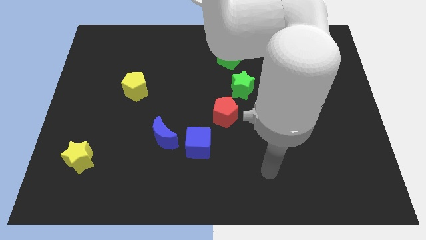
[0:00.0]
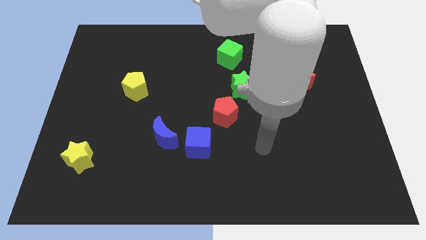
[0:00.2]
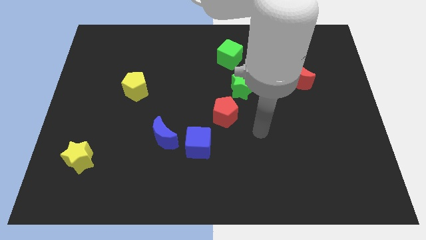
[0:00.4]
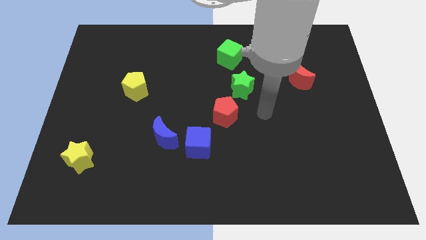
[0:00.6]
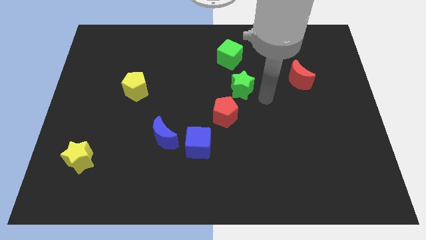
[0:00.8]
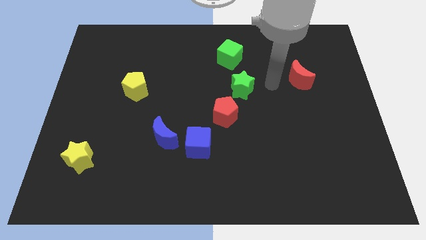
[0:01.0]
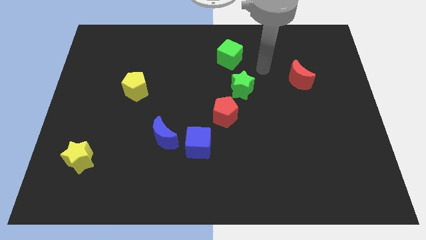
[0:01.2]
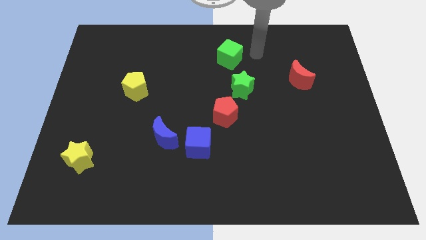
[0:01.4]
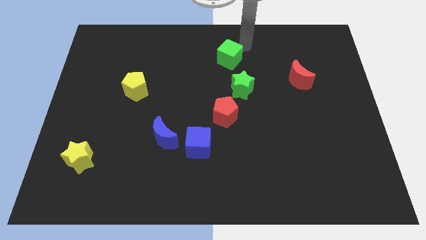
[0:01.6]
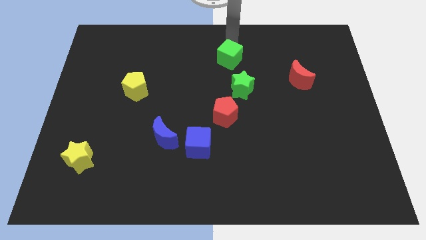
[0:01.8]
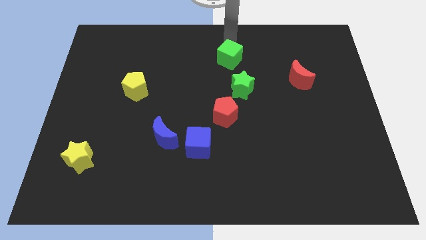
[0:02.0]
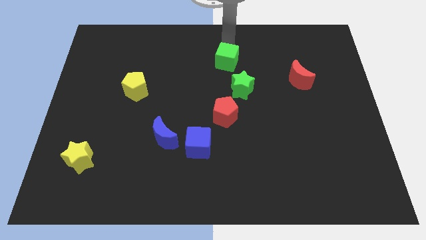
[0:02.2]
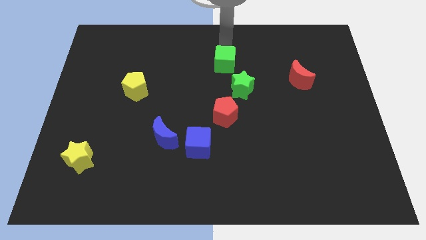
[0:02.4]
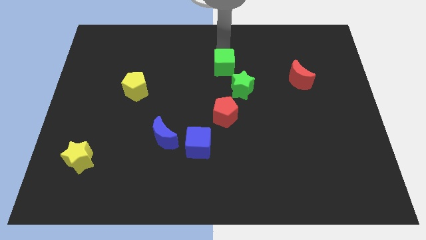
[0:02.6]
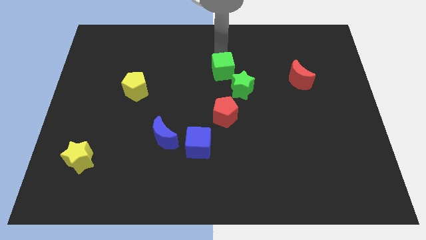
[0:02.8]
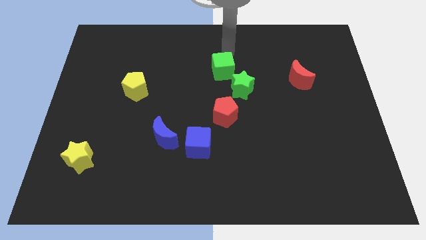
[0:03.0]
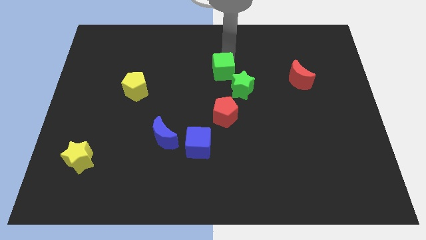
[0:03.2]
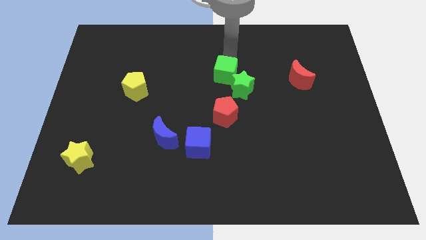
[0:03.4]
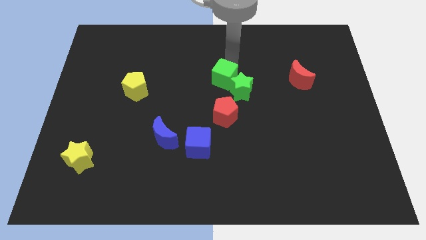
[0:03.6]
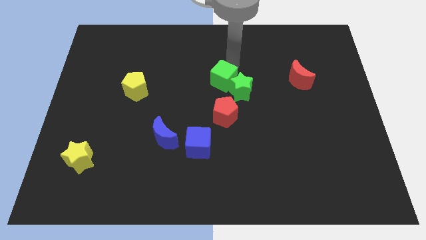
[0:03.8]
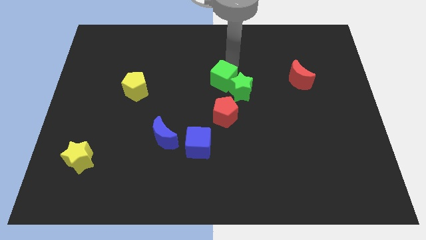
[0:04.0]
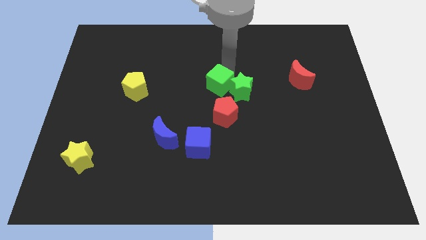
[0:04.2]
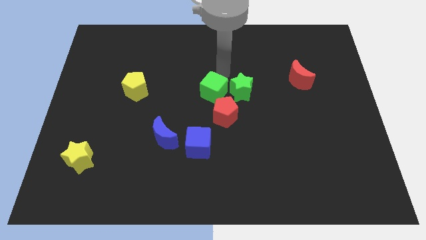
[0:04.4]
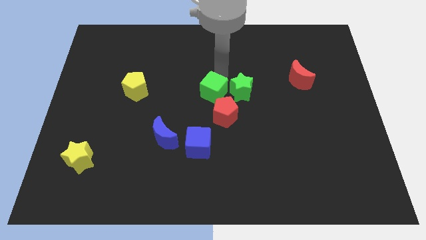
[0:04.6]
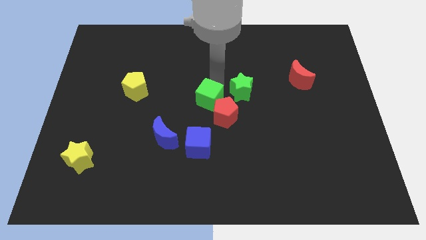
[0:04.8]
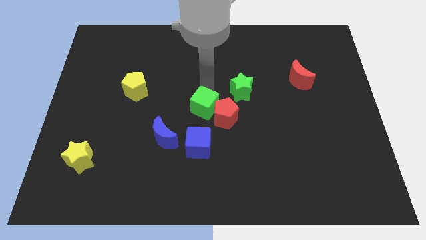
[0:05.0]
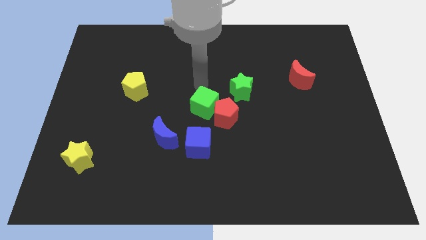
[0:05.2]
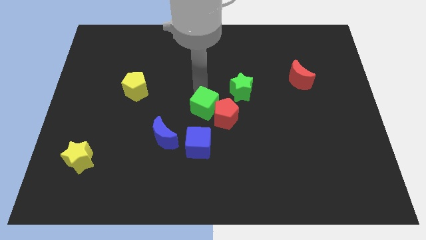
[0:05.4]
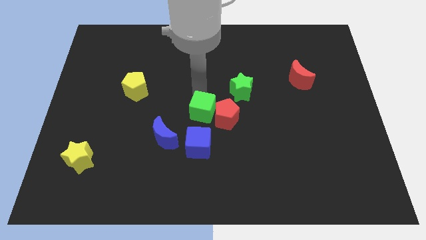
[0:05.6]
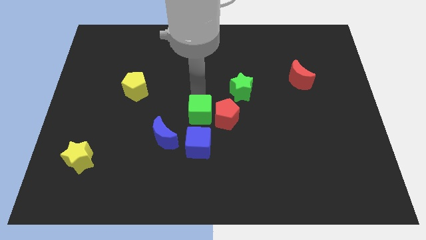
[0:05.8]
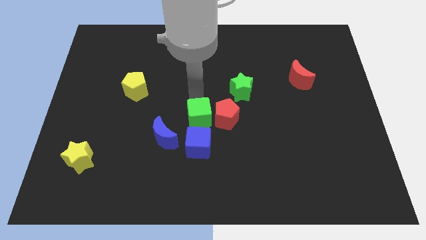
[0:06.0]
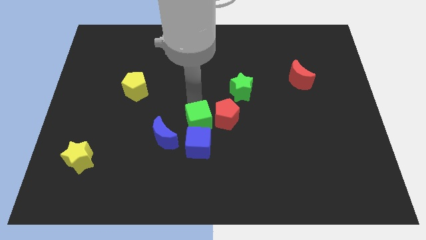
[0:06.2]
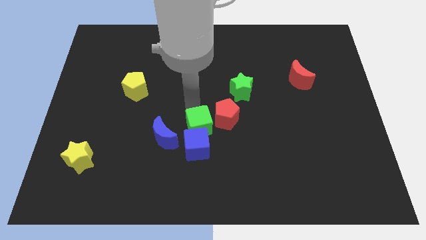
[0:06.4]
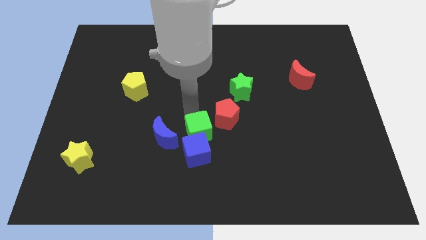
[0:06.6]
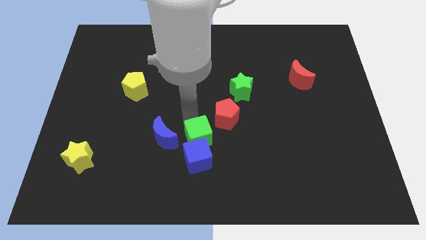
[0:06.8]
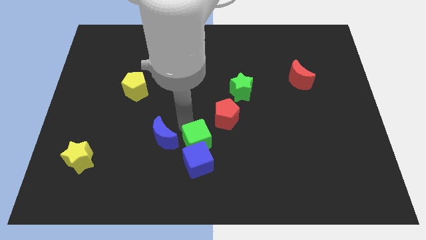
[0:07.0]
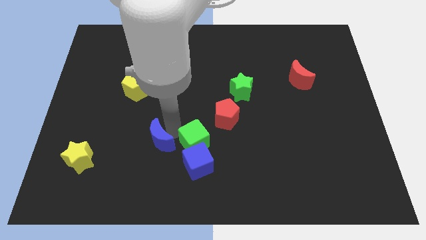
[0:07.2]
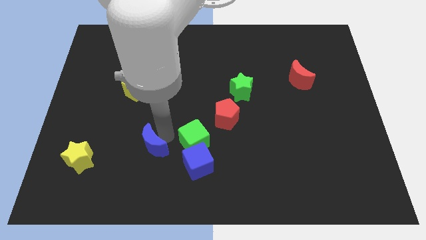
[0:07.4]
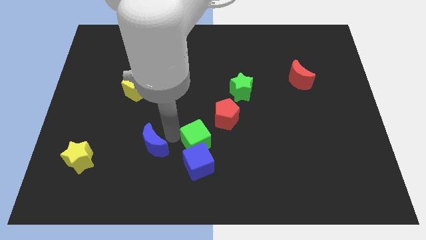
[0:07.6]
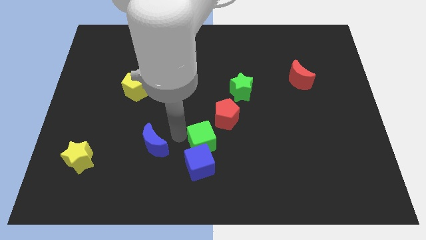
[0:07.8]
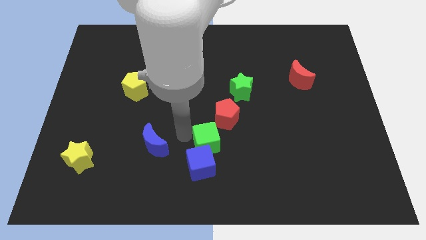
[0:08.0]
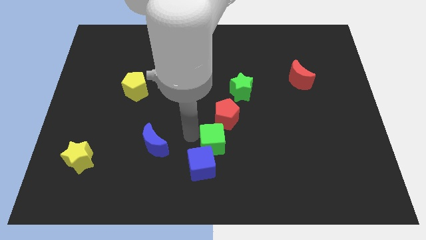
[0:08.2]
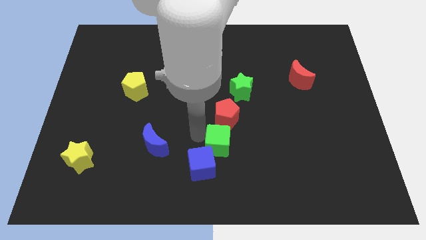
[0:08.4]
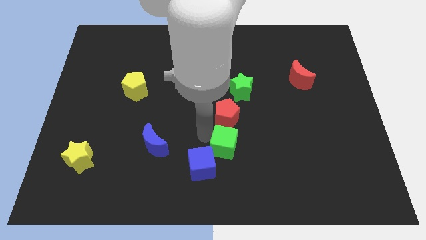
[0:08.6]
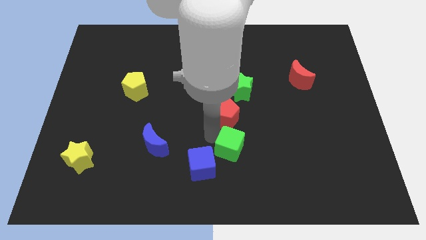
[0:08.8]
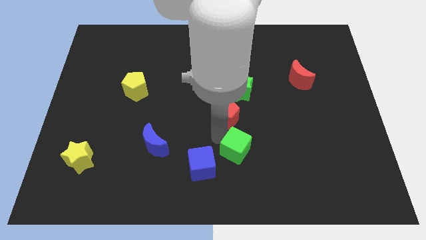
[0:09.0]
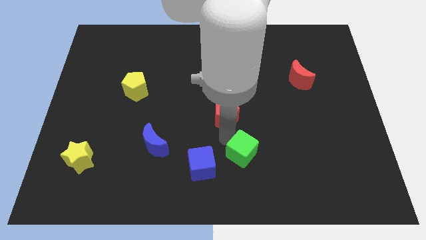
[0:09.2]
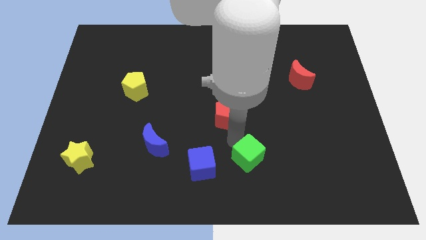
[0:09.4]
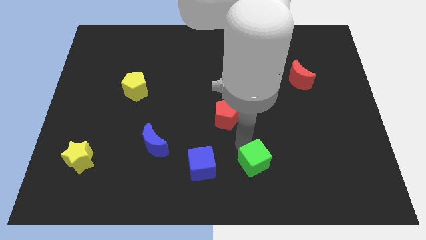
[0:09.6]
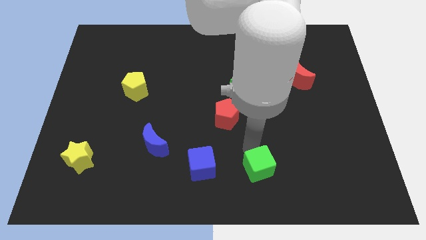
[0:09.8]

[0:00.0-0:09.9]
put the green cube to the bottom

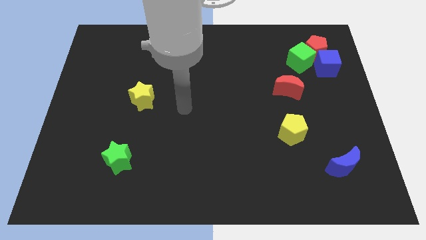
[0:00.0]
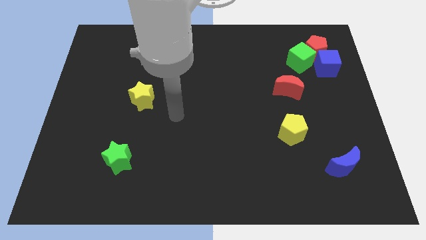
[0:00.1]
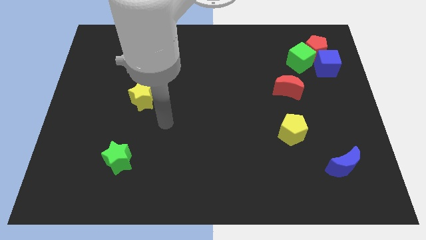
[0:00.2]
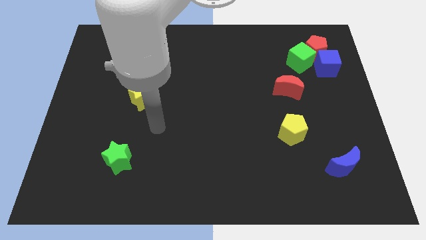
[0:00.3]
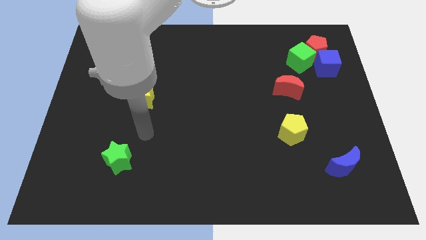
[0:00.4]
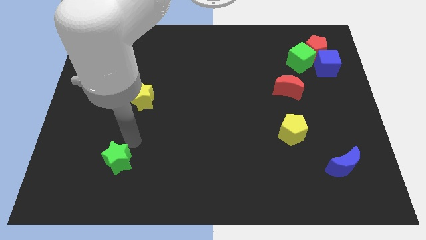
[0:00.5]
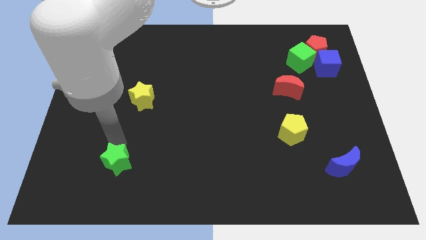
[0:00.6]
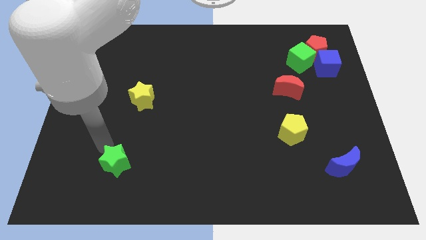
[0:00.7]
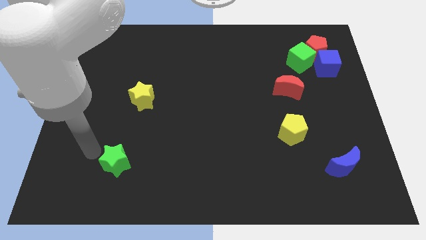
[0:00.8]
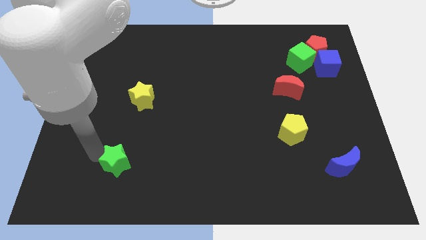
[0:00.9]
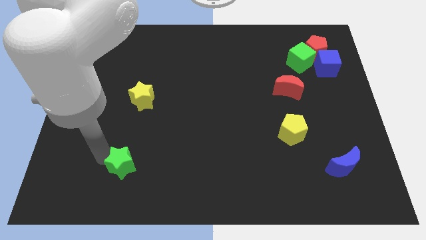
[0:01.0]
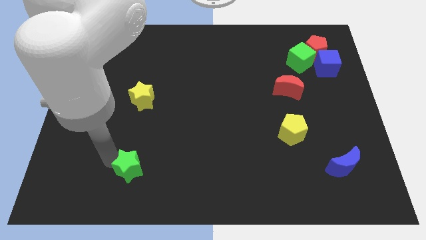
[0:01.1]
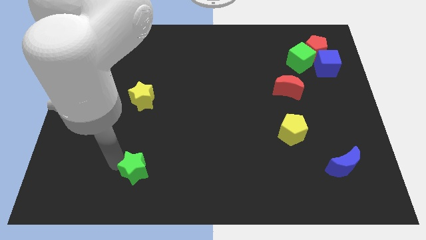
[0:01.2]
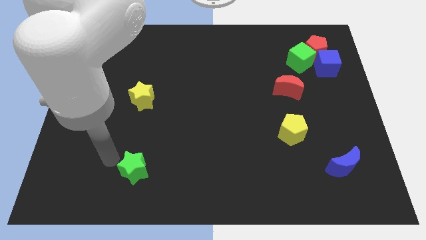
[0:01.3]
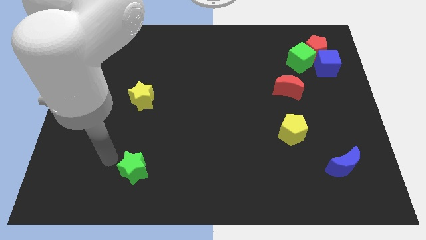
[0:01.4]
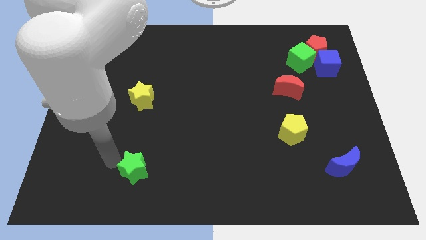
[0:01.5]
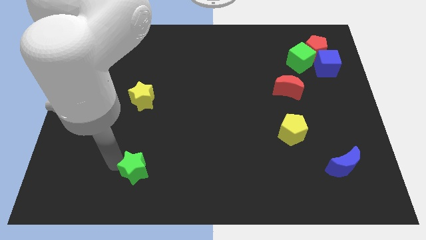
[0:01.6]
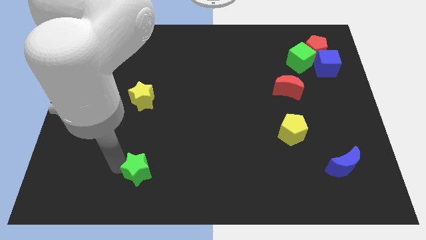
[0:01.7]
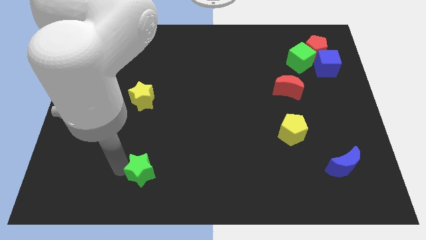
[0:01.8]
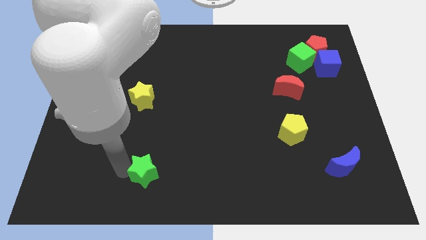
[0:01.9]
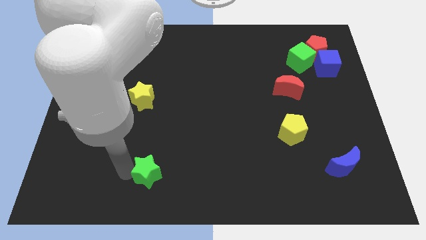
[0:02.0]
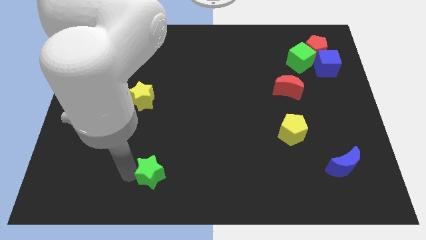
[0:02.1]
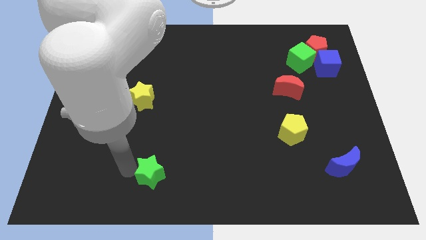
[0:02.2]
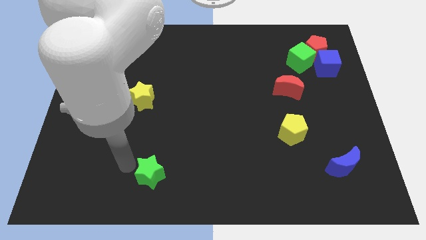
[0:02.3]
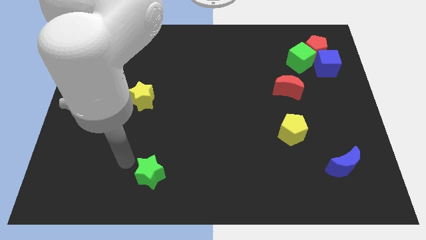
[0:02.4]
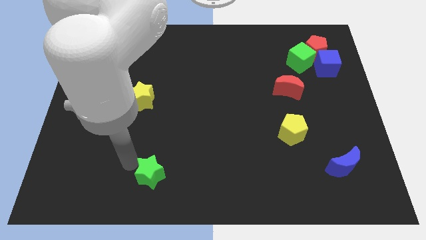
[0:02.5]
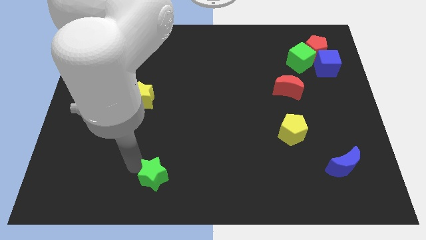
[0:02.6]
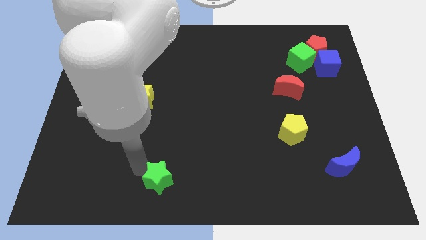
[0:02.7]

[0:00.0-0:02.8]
slide the green star to the bottom side

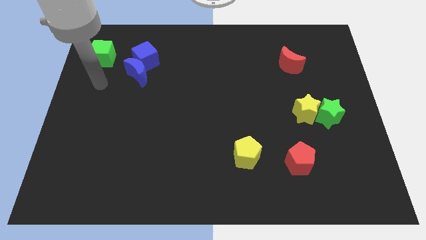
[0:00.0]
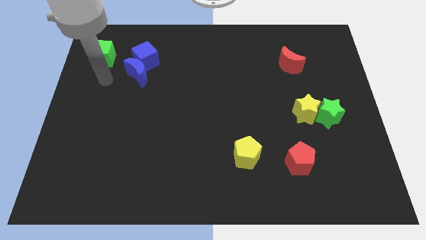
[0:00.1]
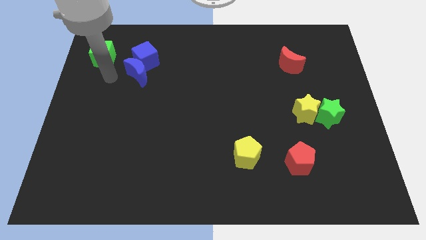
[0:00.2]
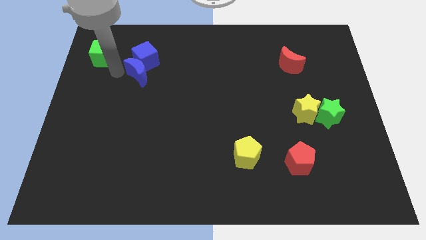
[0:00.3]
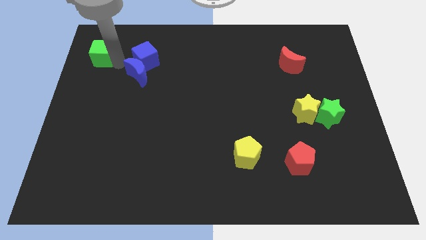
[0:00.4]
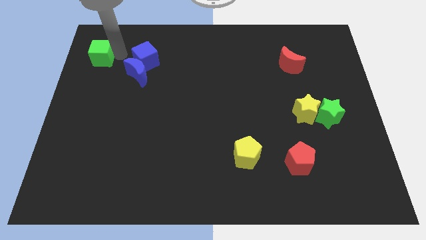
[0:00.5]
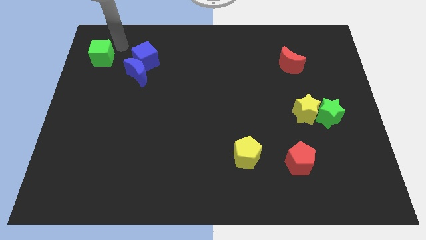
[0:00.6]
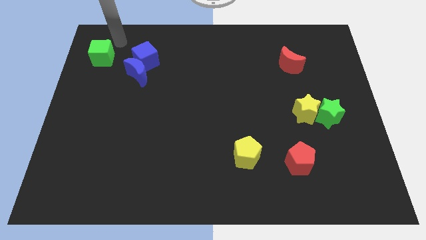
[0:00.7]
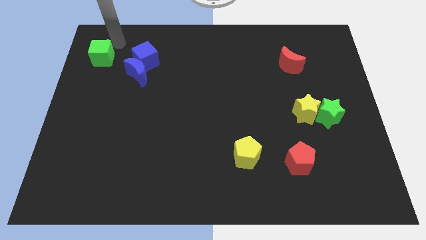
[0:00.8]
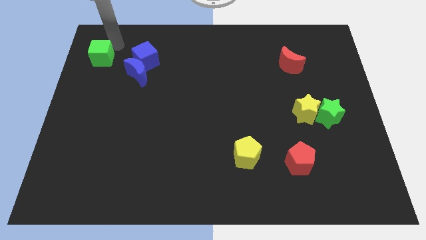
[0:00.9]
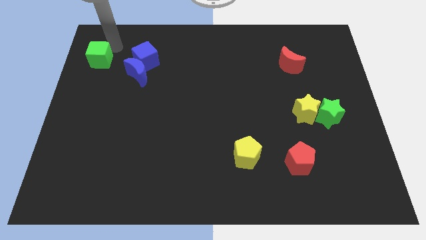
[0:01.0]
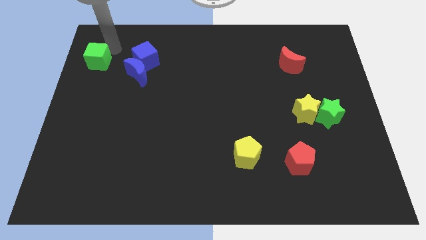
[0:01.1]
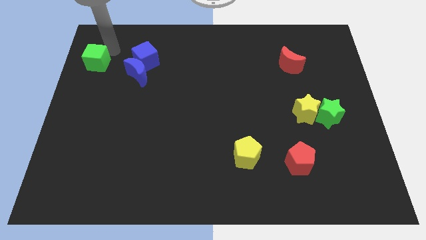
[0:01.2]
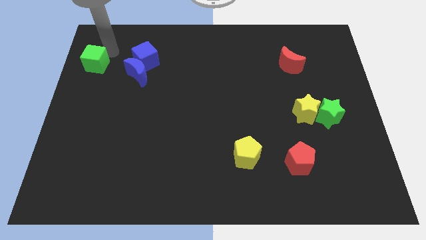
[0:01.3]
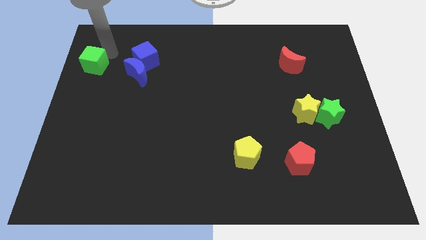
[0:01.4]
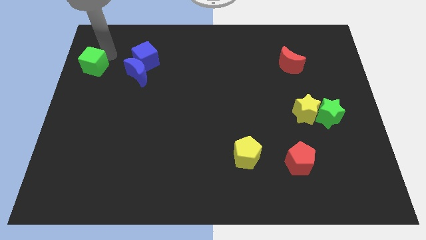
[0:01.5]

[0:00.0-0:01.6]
push the green cube to the left side of the board
